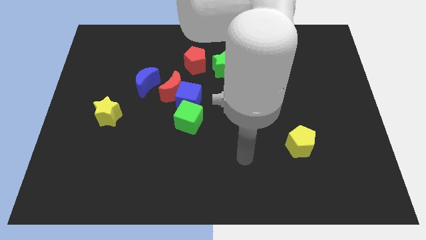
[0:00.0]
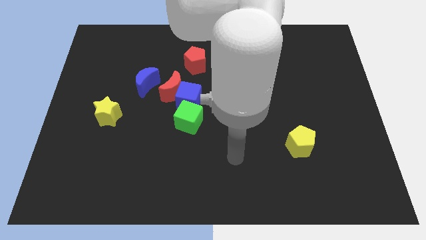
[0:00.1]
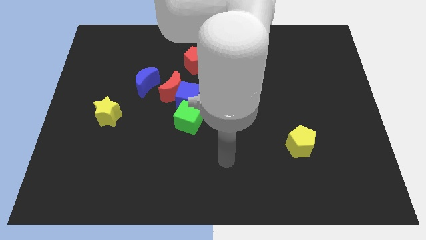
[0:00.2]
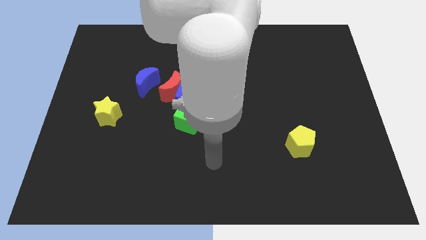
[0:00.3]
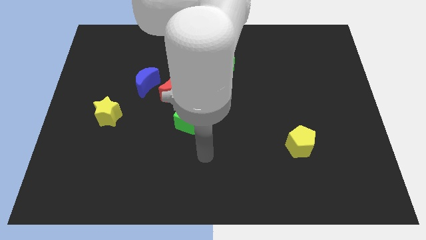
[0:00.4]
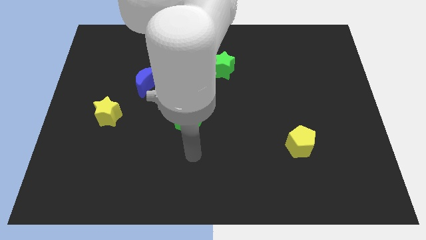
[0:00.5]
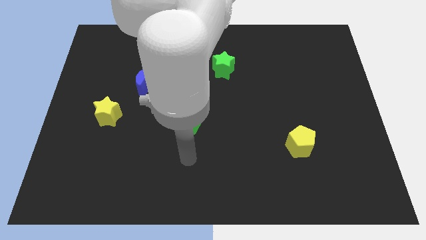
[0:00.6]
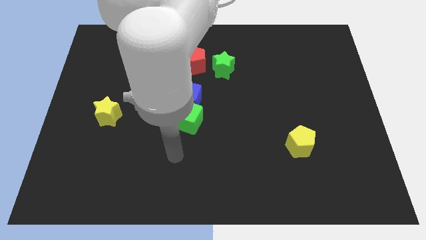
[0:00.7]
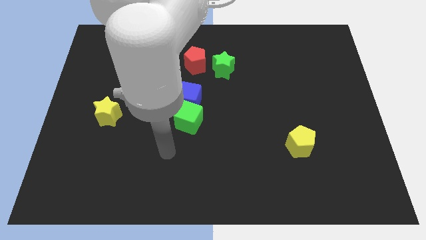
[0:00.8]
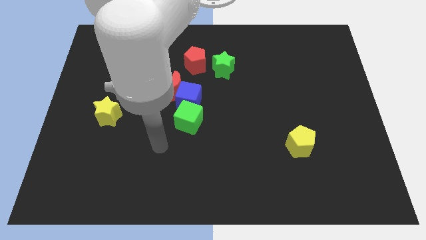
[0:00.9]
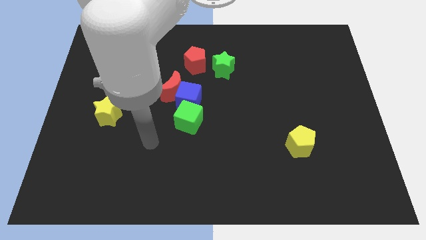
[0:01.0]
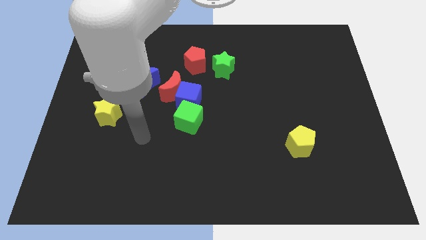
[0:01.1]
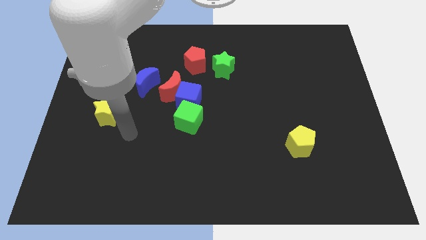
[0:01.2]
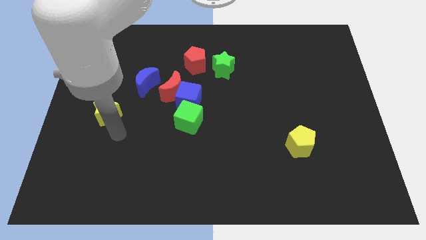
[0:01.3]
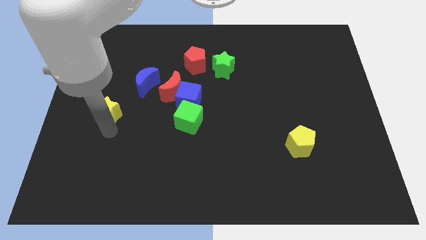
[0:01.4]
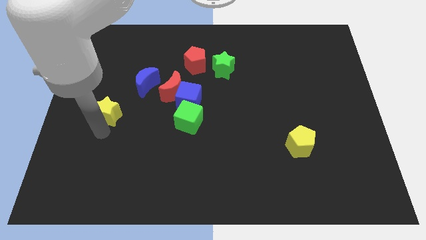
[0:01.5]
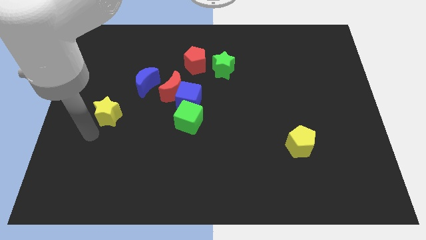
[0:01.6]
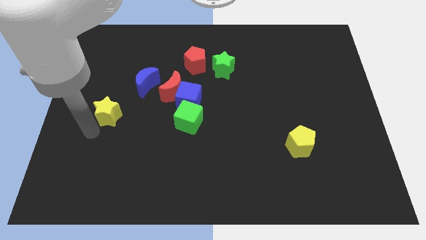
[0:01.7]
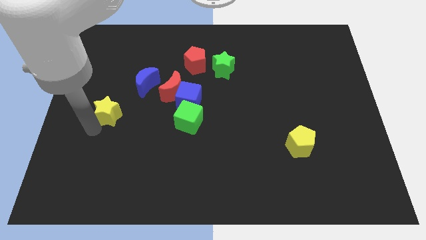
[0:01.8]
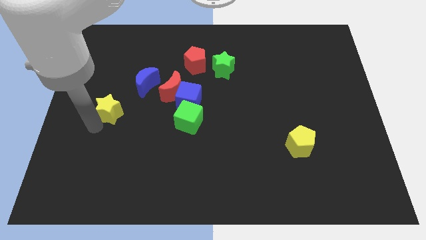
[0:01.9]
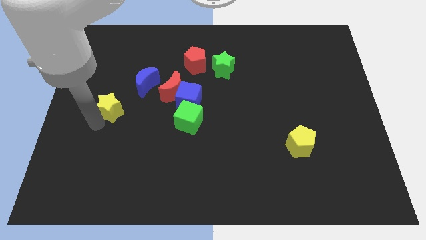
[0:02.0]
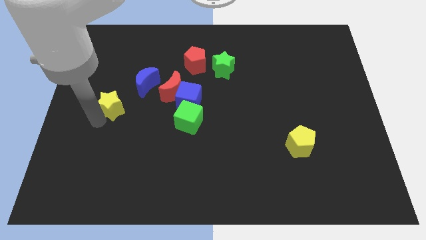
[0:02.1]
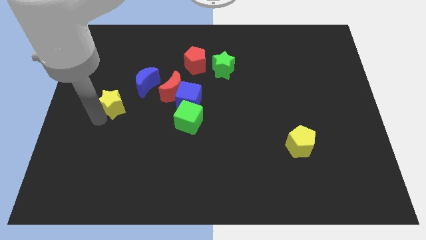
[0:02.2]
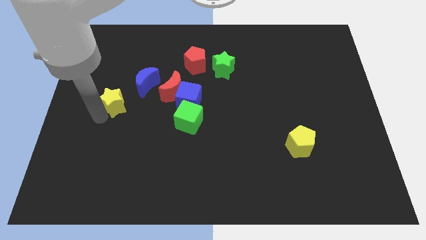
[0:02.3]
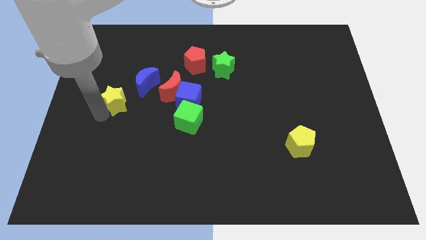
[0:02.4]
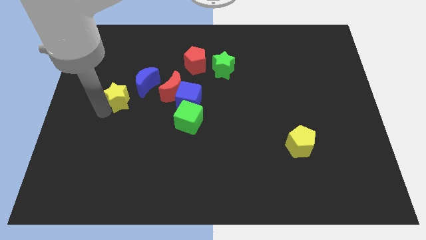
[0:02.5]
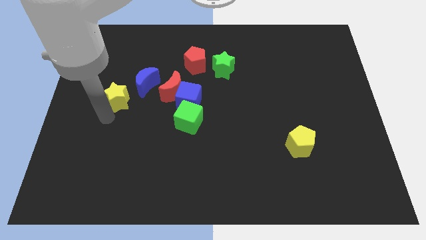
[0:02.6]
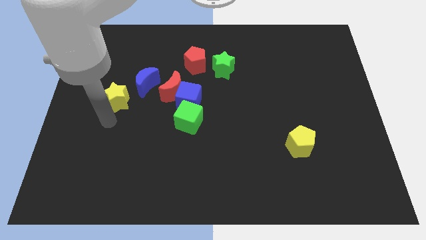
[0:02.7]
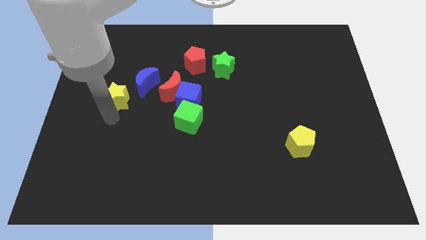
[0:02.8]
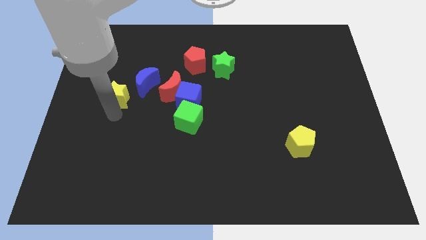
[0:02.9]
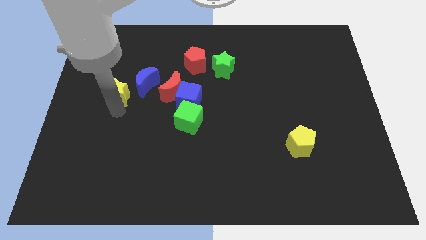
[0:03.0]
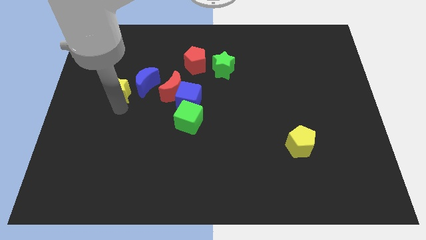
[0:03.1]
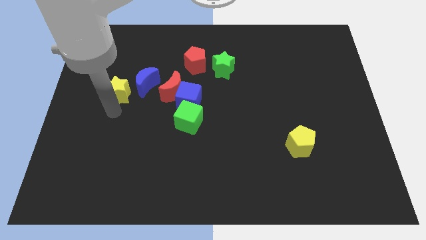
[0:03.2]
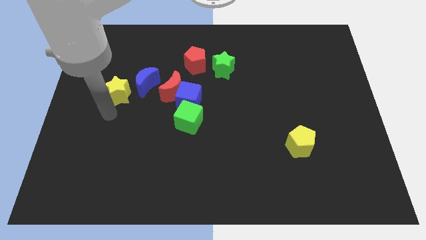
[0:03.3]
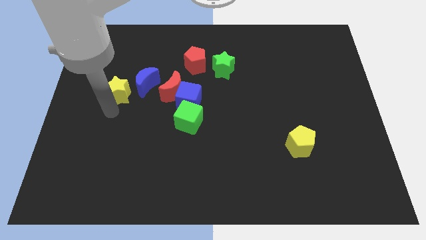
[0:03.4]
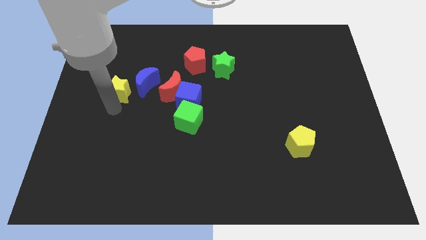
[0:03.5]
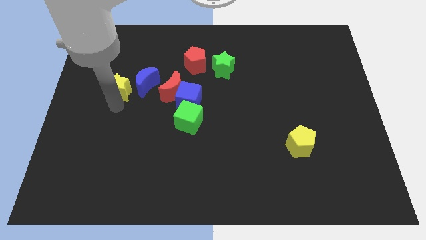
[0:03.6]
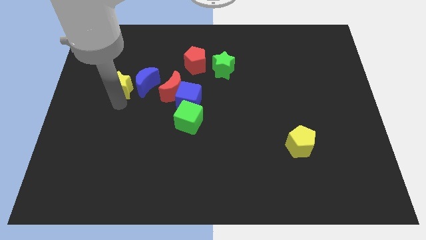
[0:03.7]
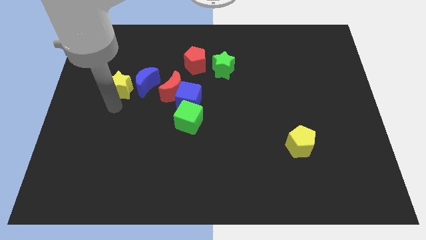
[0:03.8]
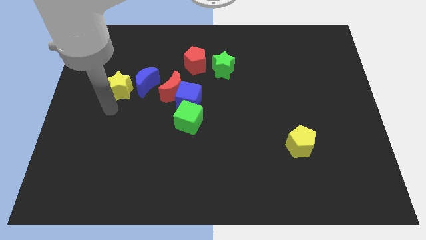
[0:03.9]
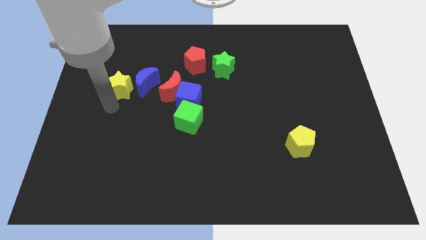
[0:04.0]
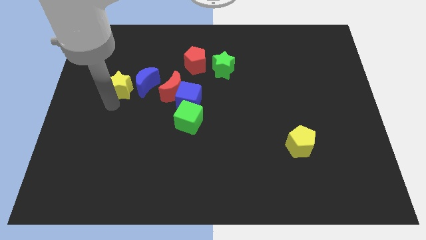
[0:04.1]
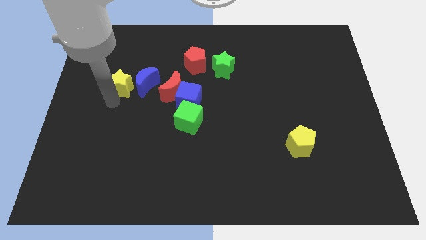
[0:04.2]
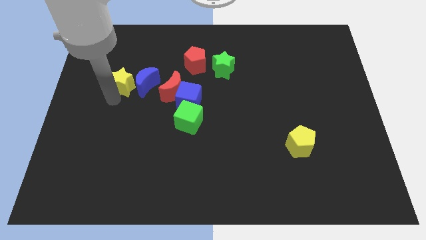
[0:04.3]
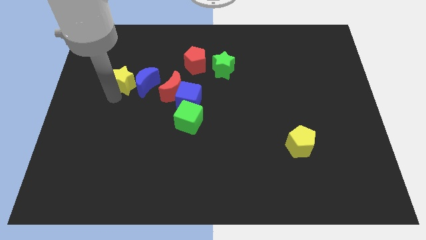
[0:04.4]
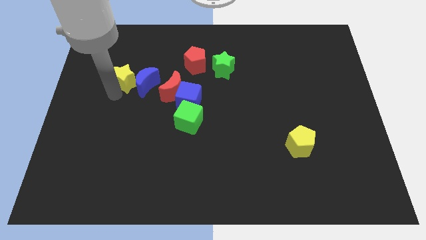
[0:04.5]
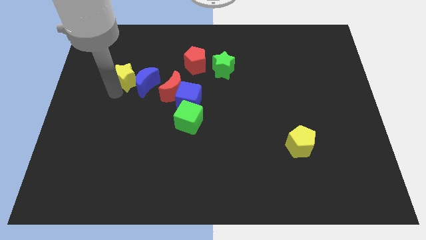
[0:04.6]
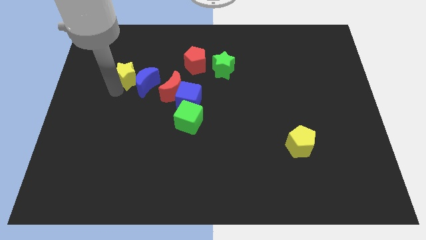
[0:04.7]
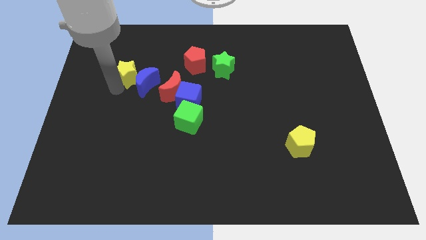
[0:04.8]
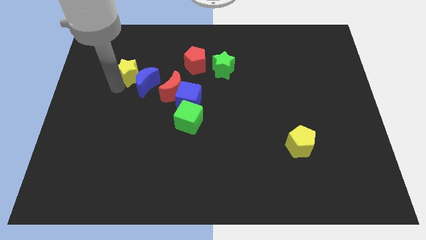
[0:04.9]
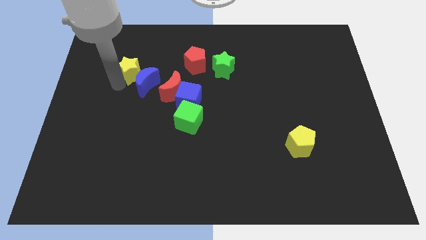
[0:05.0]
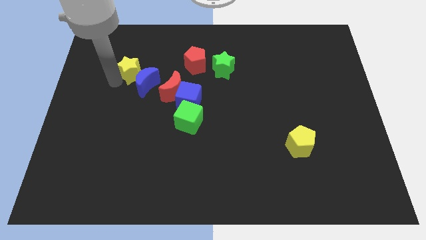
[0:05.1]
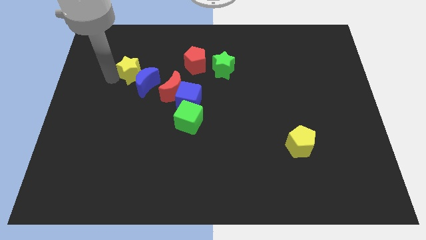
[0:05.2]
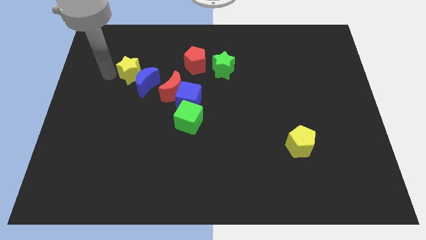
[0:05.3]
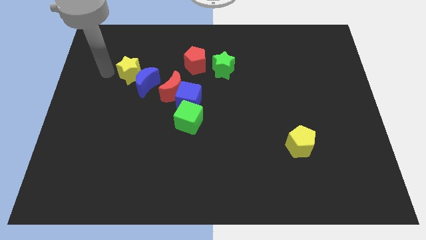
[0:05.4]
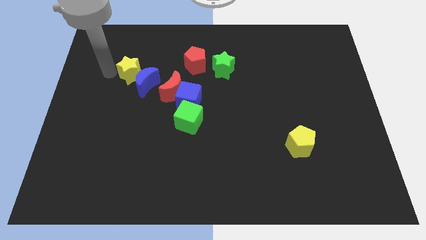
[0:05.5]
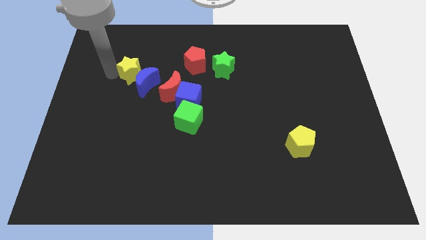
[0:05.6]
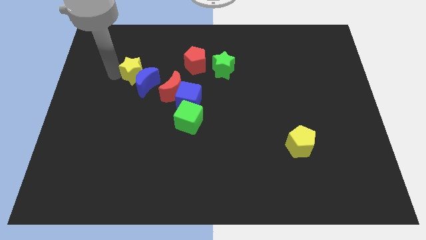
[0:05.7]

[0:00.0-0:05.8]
slide the yellow star to the top left of the red moon

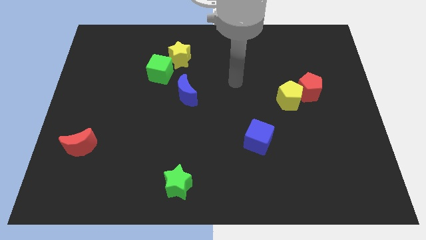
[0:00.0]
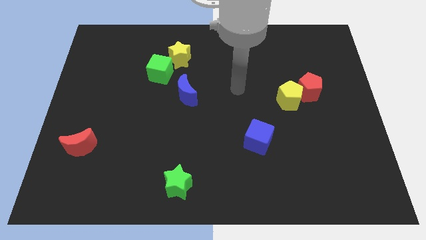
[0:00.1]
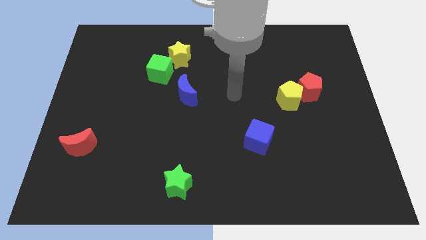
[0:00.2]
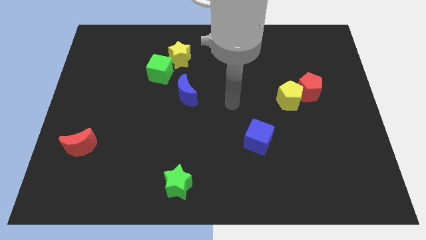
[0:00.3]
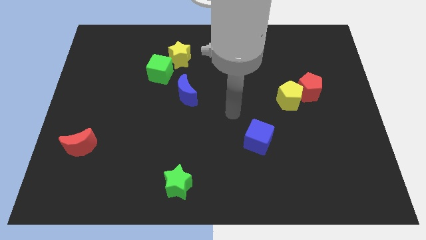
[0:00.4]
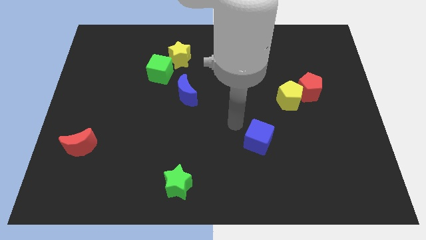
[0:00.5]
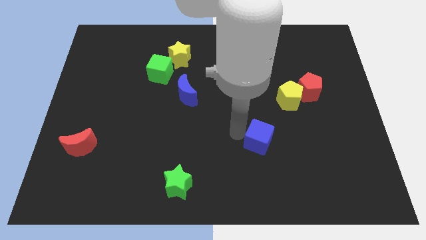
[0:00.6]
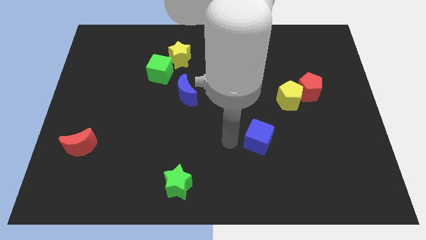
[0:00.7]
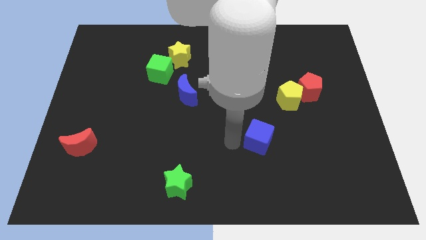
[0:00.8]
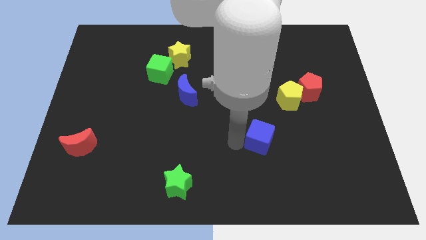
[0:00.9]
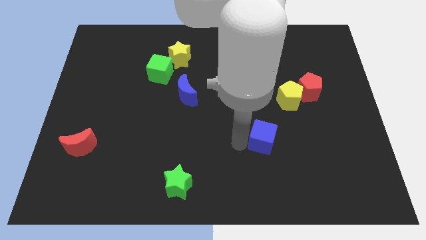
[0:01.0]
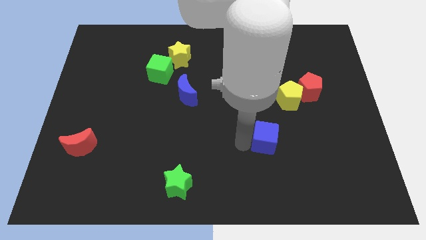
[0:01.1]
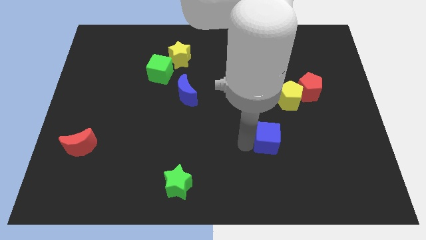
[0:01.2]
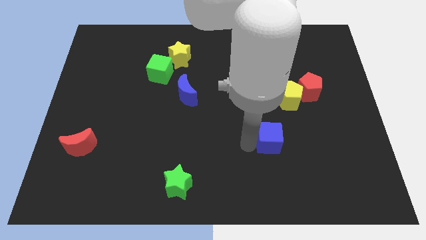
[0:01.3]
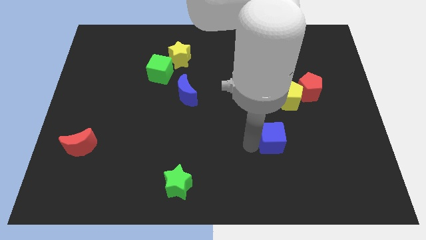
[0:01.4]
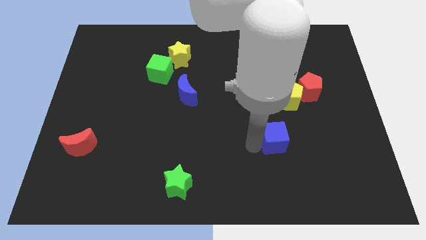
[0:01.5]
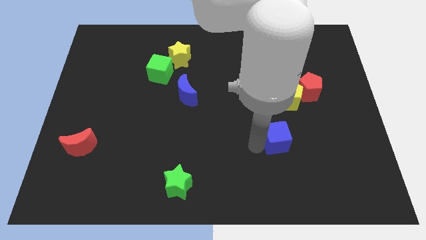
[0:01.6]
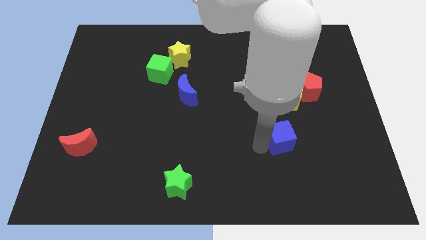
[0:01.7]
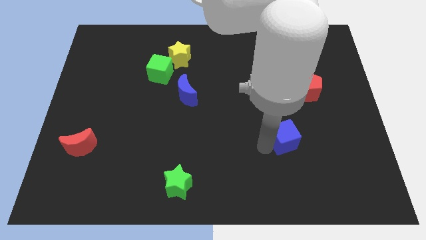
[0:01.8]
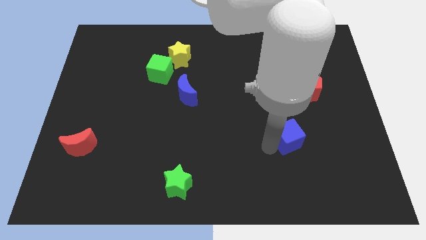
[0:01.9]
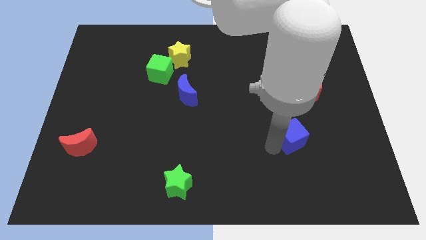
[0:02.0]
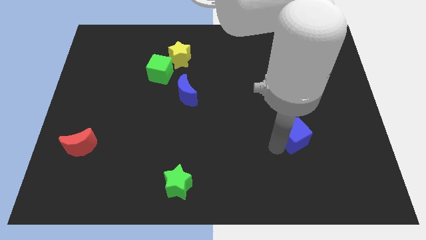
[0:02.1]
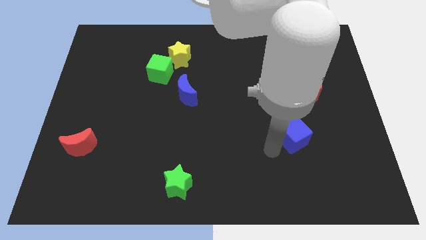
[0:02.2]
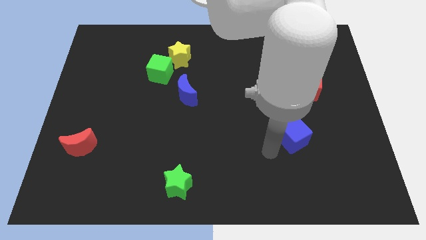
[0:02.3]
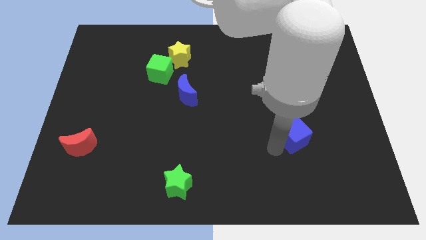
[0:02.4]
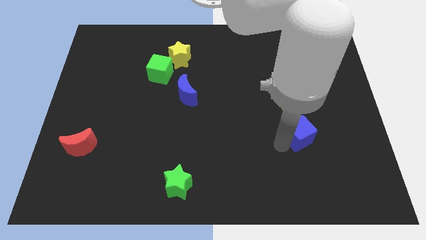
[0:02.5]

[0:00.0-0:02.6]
slide the blue cube to the bottom side of the red pentagon
